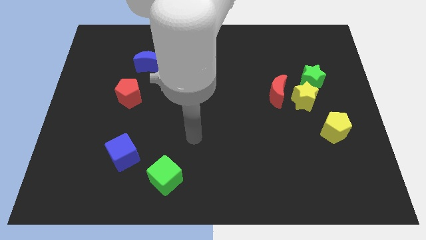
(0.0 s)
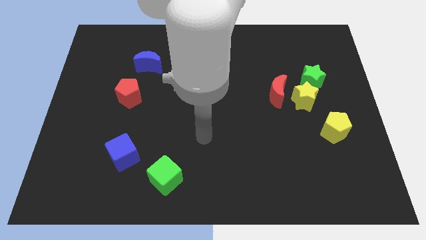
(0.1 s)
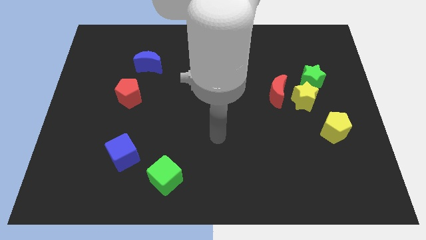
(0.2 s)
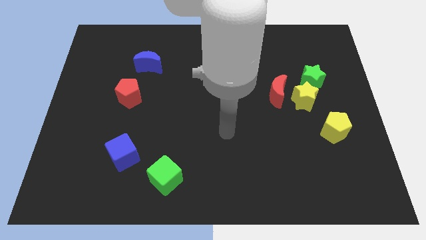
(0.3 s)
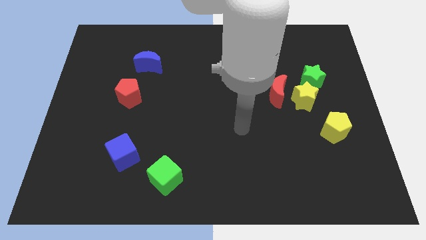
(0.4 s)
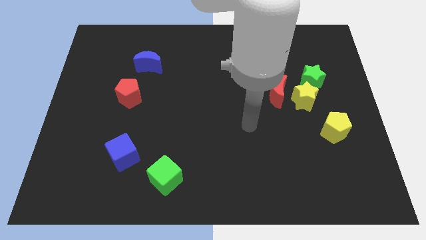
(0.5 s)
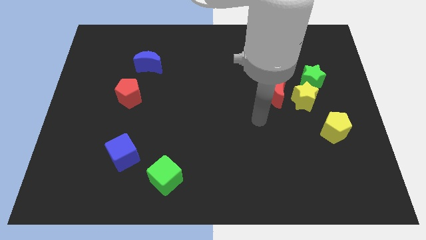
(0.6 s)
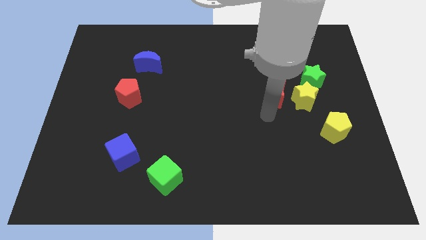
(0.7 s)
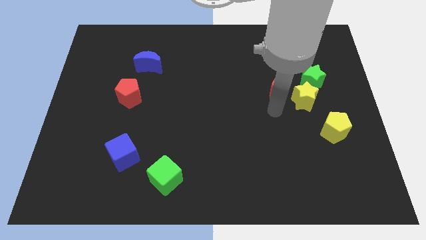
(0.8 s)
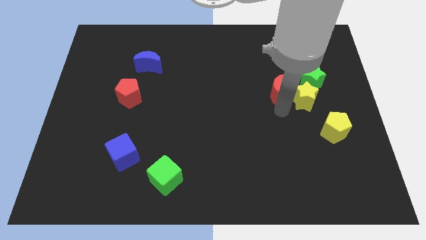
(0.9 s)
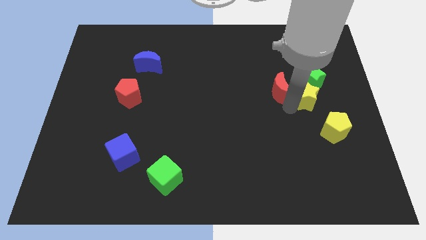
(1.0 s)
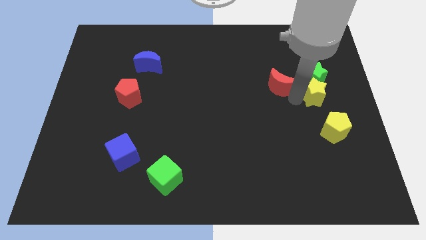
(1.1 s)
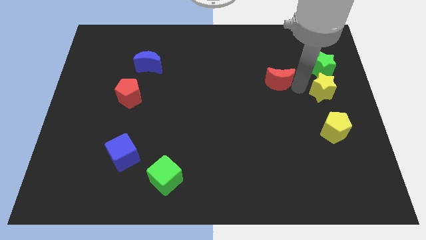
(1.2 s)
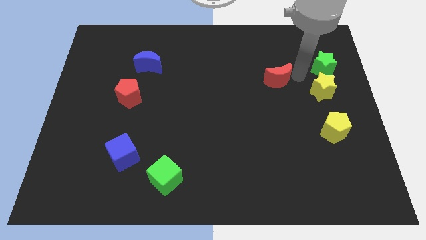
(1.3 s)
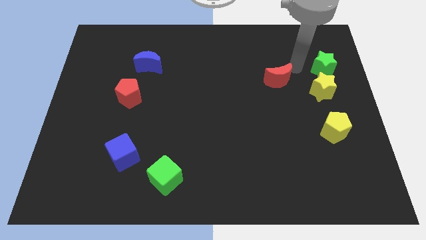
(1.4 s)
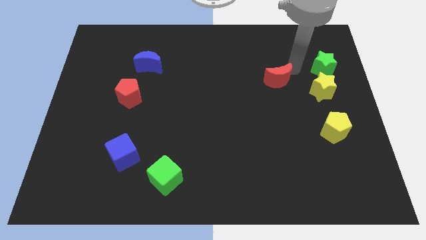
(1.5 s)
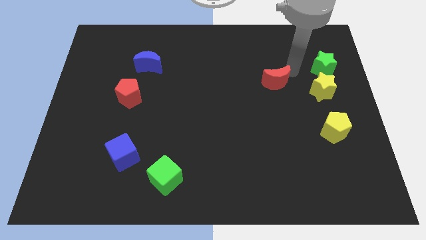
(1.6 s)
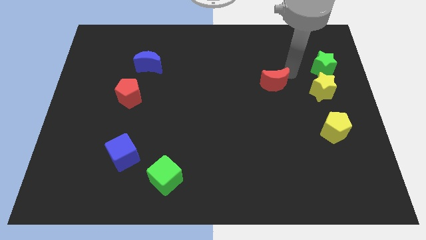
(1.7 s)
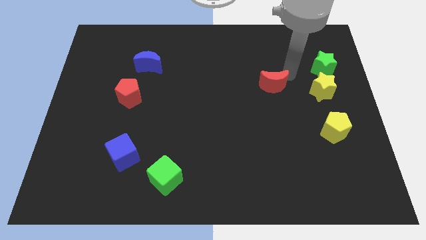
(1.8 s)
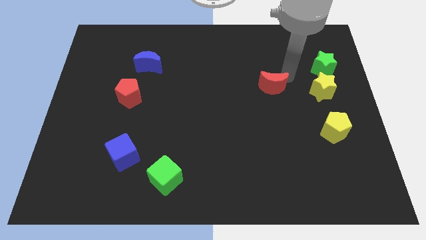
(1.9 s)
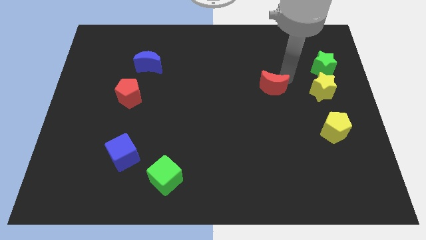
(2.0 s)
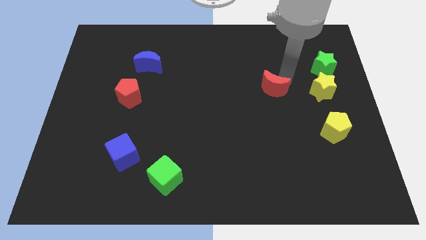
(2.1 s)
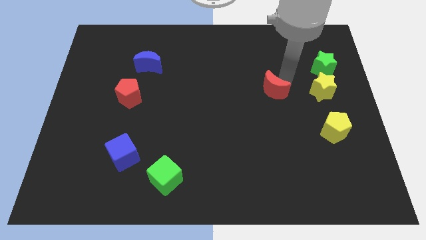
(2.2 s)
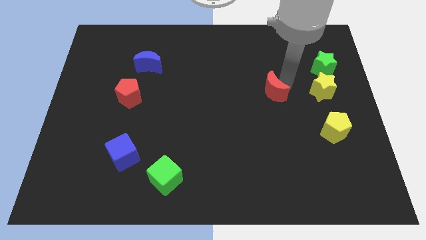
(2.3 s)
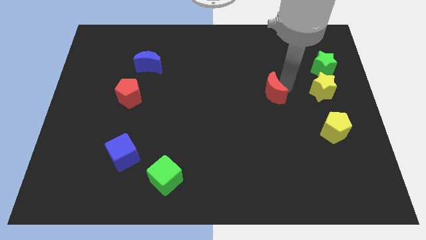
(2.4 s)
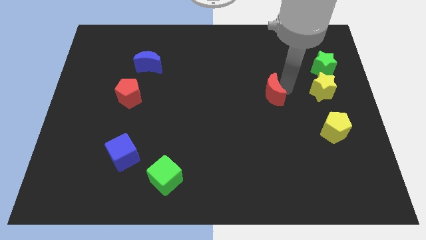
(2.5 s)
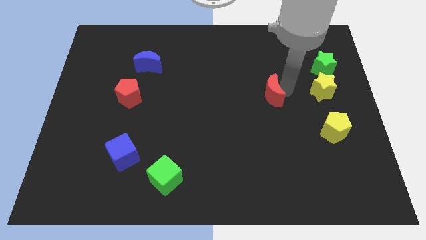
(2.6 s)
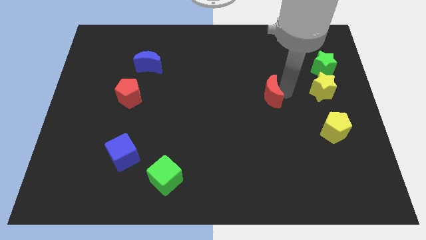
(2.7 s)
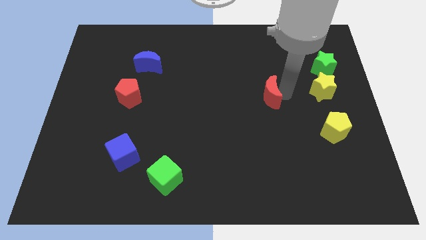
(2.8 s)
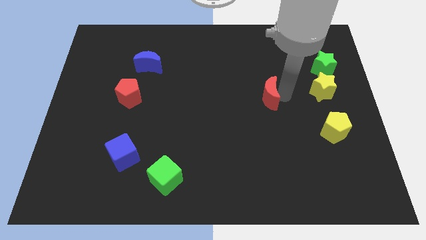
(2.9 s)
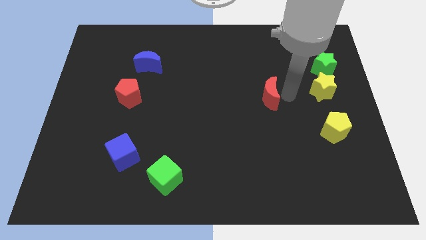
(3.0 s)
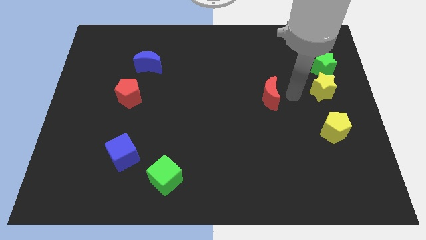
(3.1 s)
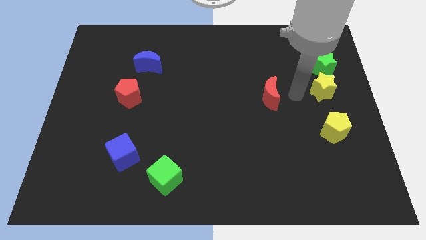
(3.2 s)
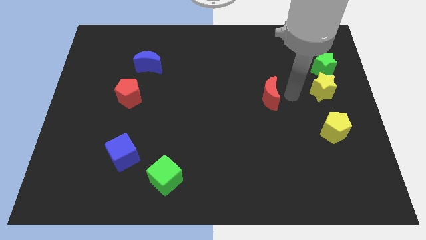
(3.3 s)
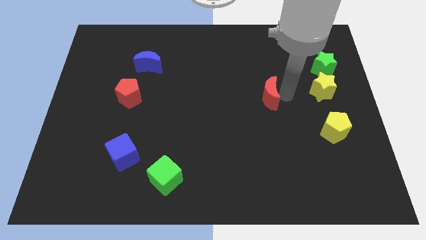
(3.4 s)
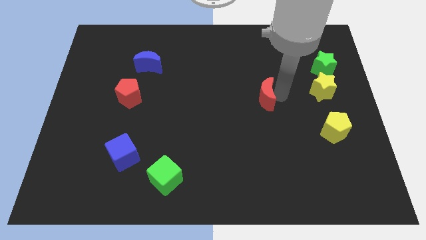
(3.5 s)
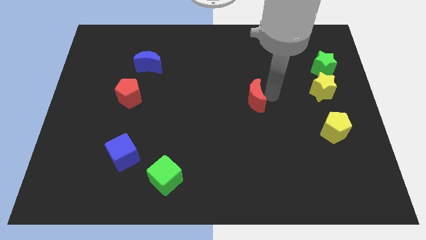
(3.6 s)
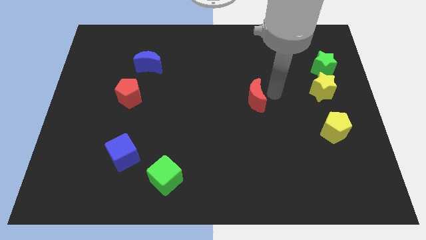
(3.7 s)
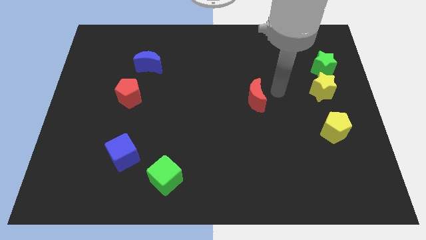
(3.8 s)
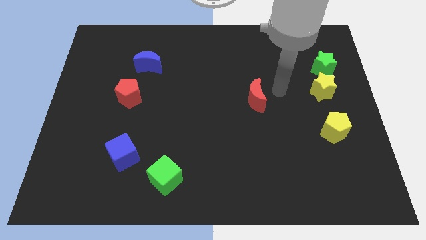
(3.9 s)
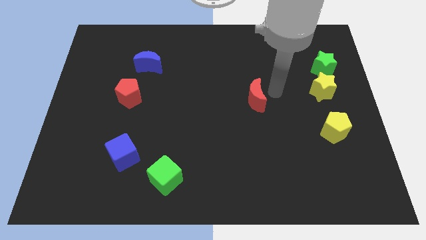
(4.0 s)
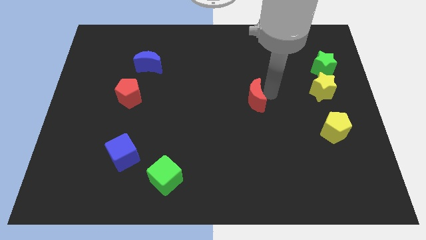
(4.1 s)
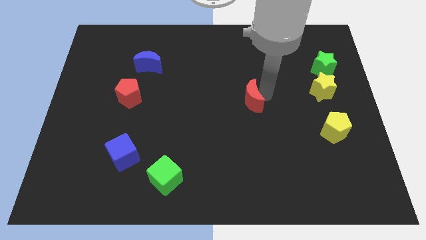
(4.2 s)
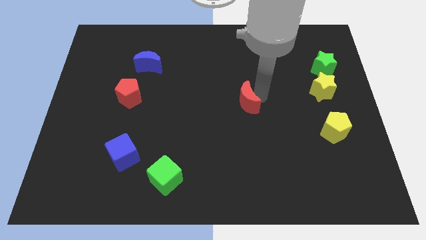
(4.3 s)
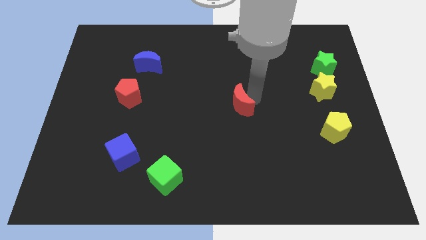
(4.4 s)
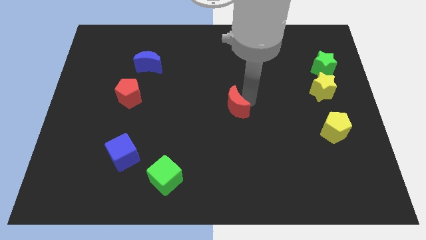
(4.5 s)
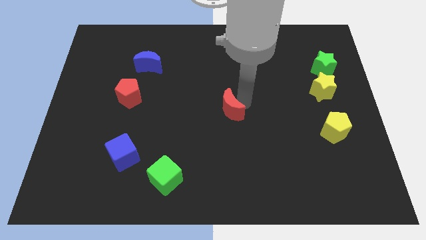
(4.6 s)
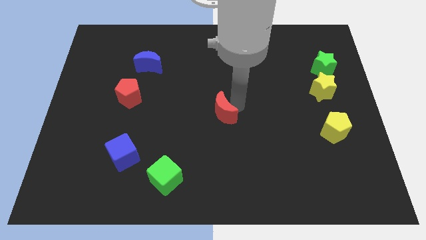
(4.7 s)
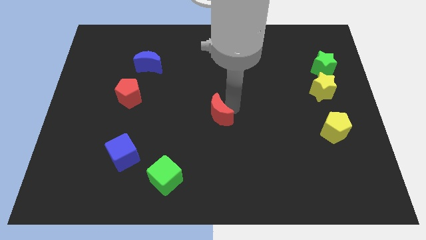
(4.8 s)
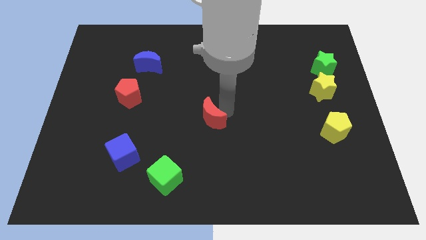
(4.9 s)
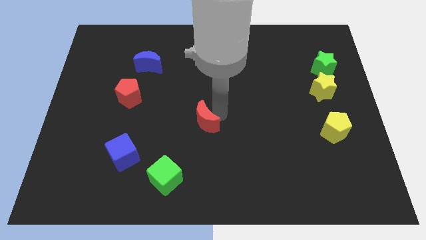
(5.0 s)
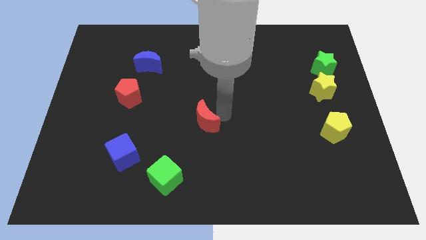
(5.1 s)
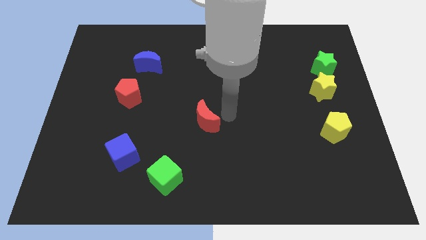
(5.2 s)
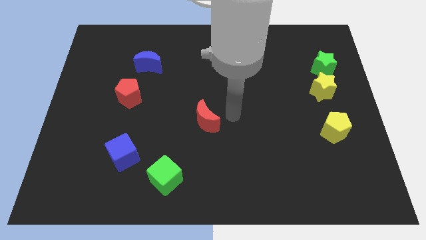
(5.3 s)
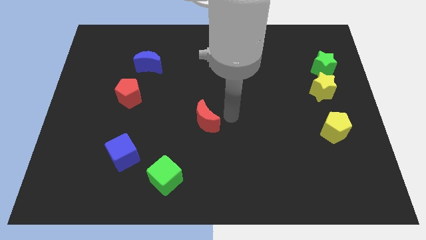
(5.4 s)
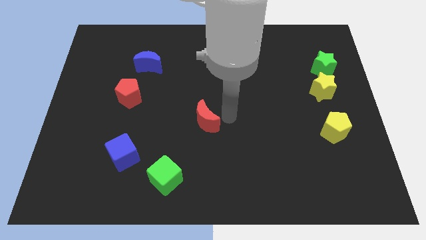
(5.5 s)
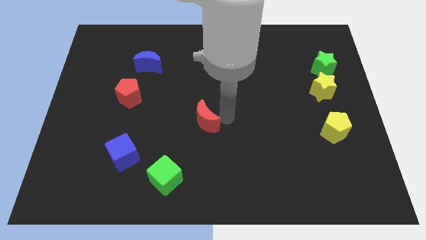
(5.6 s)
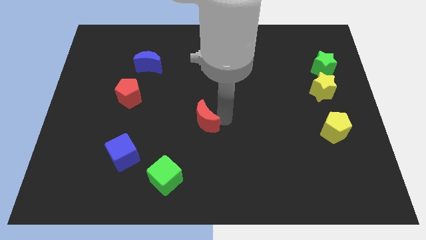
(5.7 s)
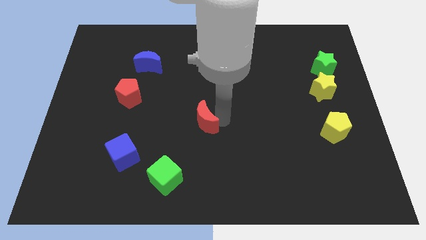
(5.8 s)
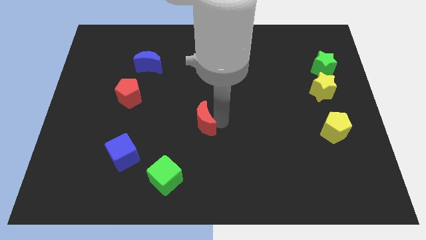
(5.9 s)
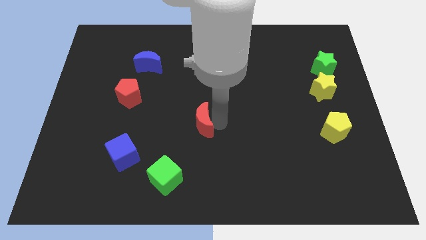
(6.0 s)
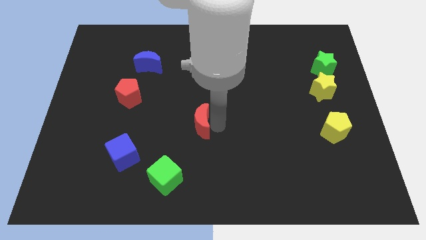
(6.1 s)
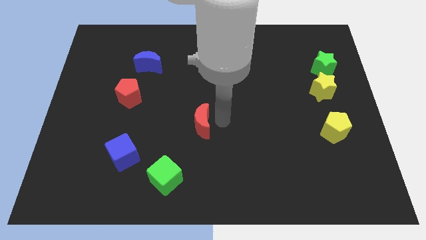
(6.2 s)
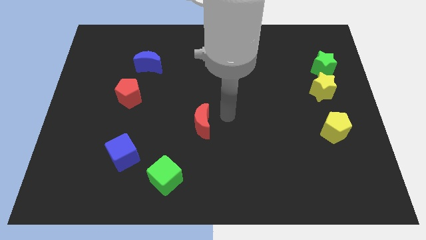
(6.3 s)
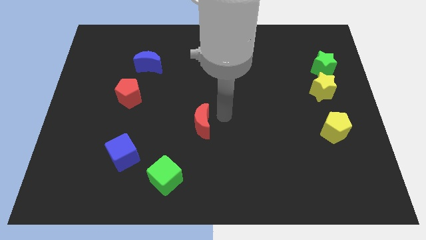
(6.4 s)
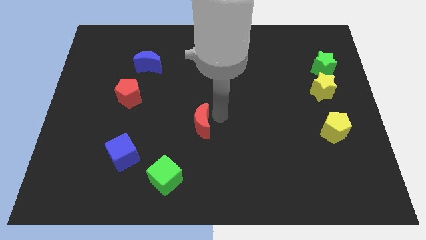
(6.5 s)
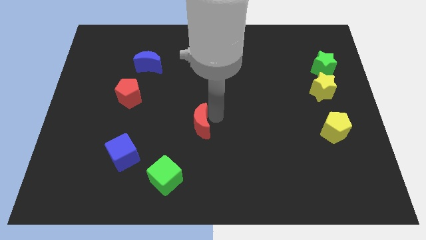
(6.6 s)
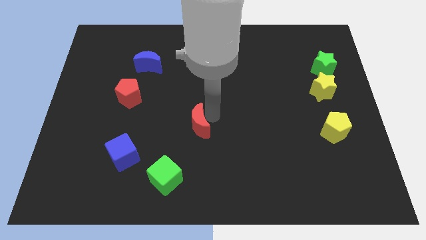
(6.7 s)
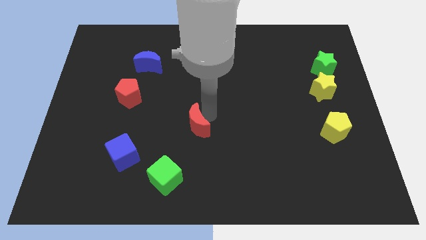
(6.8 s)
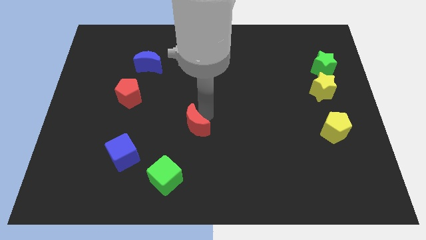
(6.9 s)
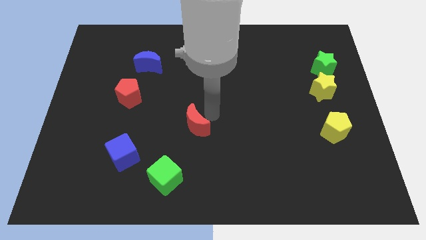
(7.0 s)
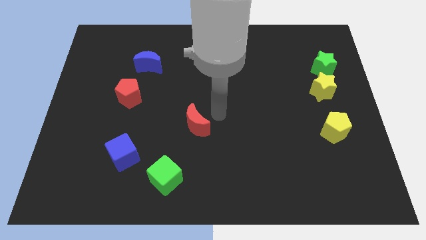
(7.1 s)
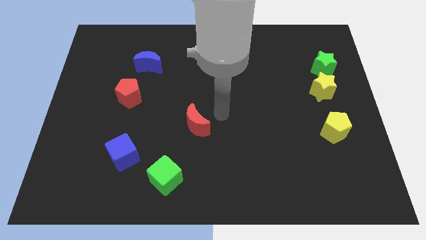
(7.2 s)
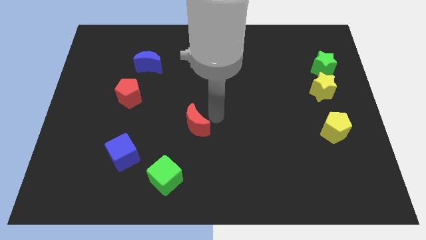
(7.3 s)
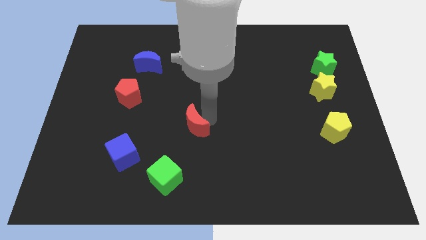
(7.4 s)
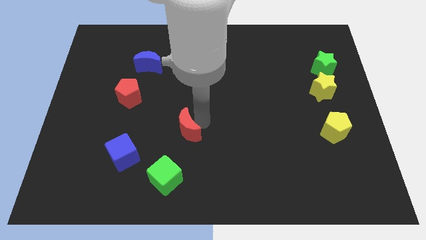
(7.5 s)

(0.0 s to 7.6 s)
slide the red moon to the top of the green cube
